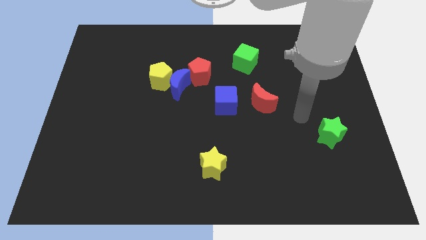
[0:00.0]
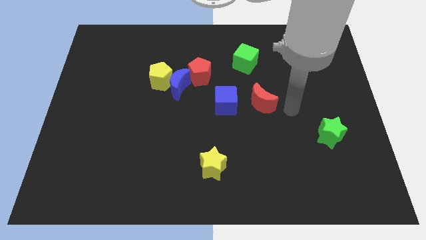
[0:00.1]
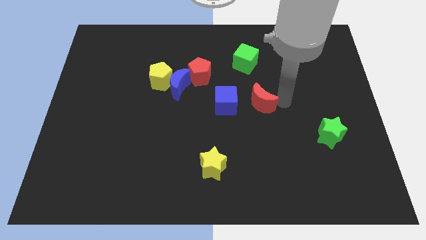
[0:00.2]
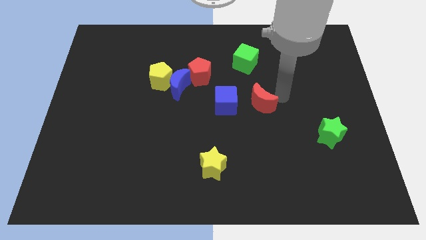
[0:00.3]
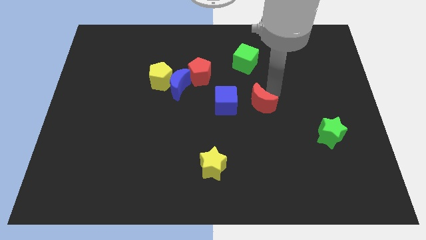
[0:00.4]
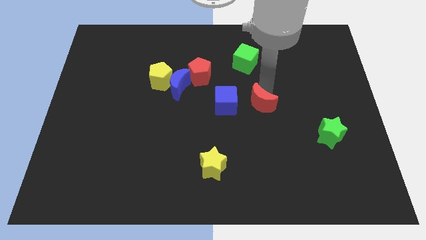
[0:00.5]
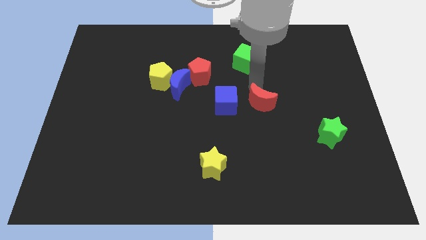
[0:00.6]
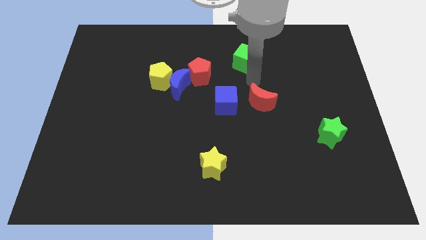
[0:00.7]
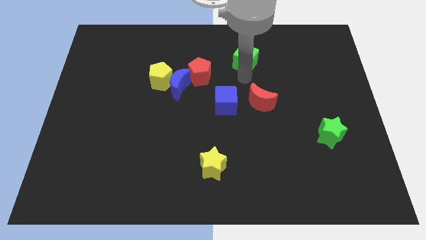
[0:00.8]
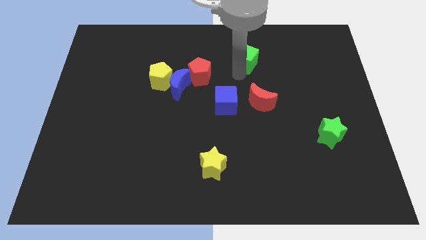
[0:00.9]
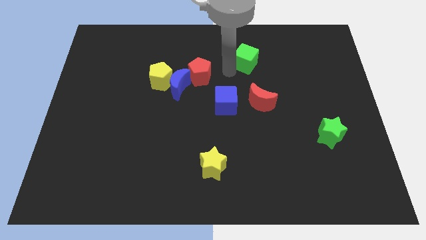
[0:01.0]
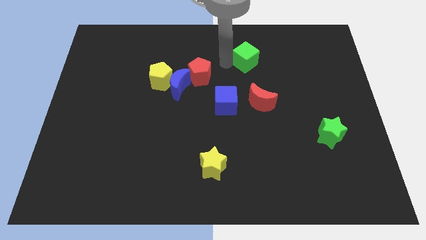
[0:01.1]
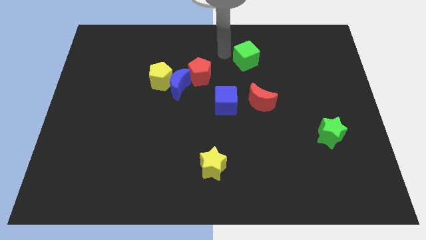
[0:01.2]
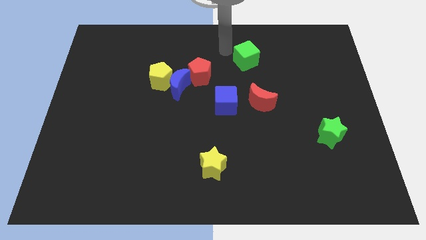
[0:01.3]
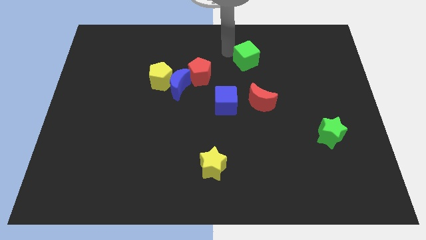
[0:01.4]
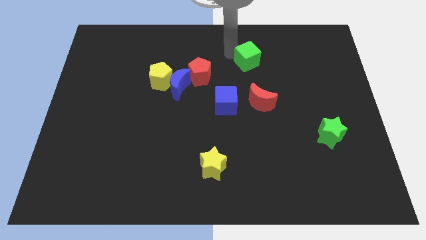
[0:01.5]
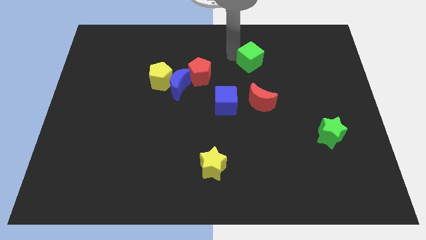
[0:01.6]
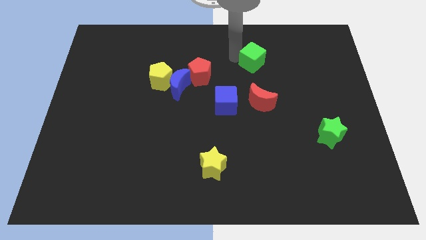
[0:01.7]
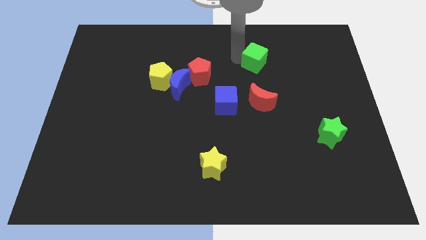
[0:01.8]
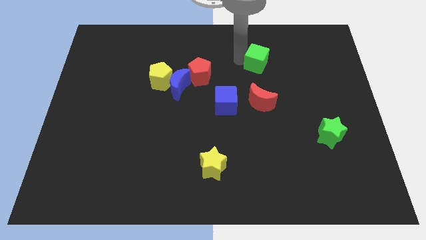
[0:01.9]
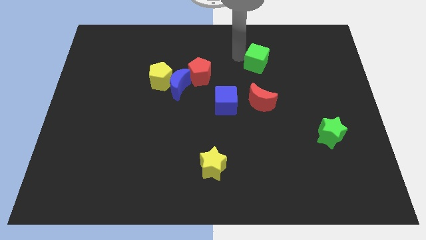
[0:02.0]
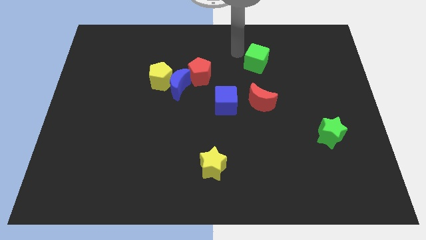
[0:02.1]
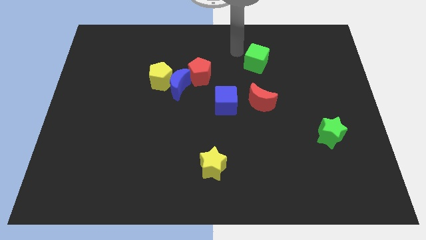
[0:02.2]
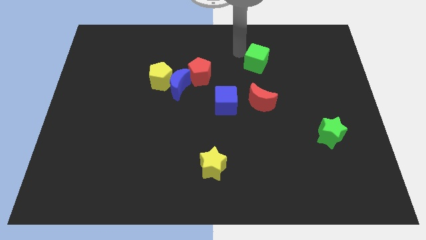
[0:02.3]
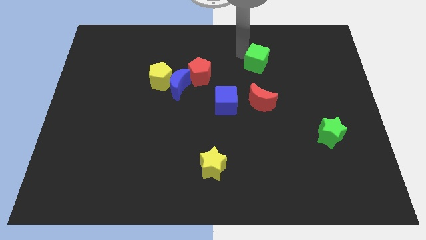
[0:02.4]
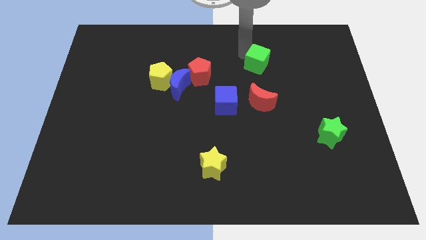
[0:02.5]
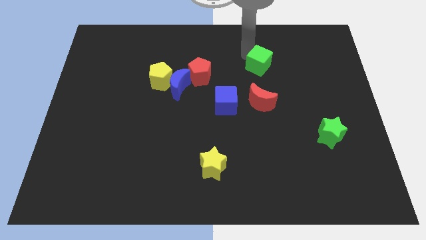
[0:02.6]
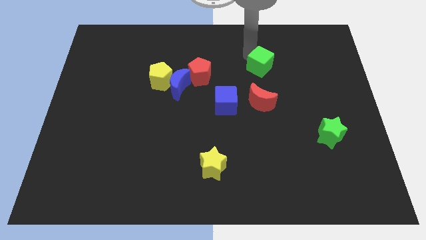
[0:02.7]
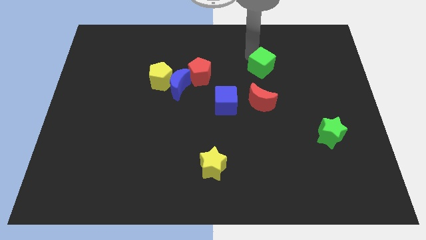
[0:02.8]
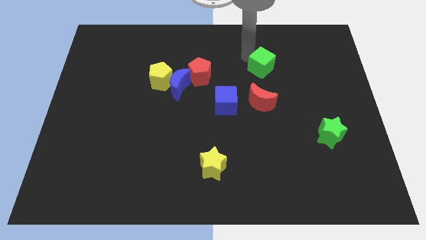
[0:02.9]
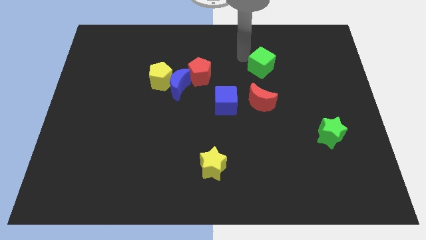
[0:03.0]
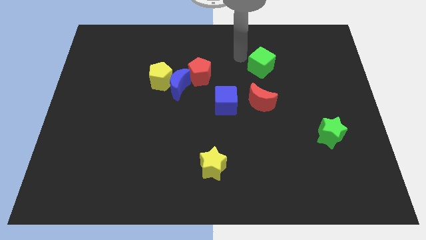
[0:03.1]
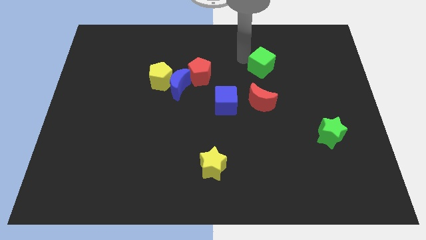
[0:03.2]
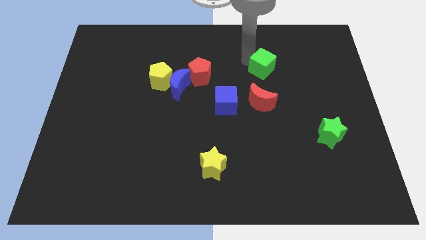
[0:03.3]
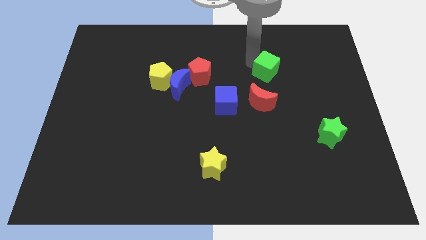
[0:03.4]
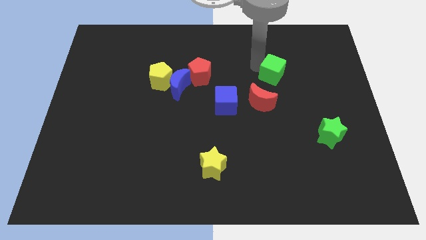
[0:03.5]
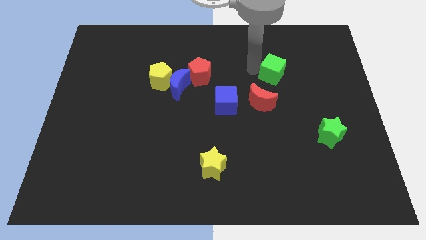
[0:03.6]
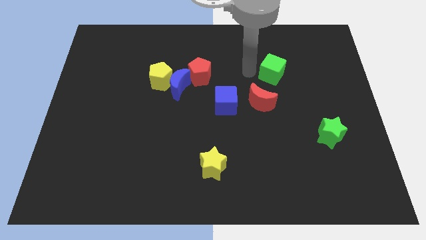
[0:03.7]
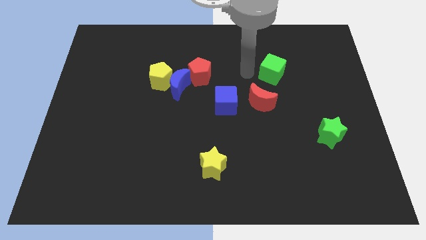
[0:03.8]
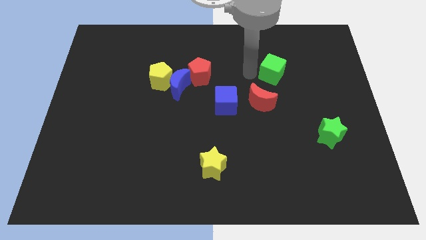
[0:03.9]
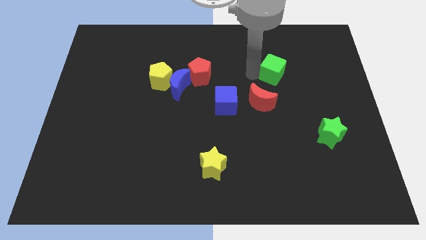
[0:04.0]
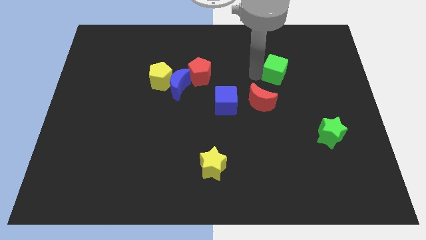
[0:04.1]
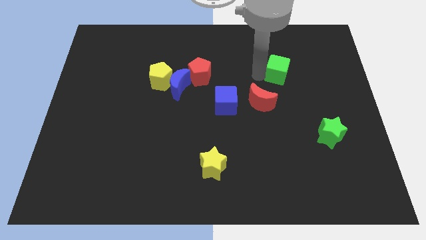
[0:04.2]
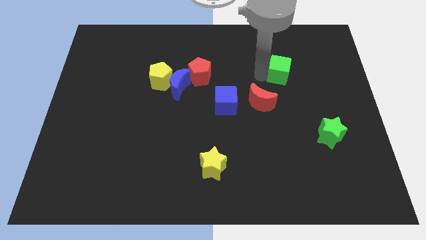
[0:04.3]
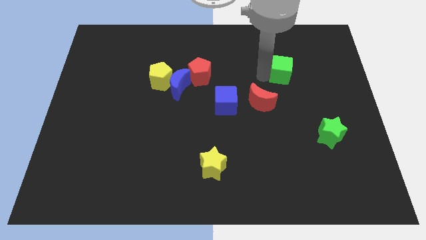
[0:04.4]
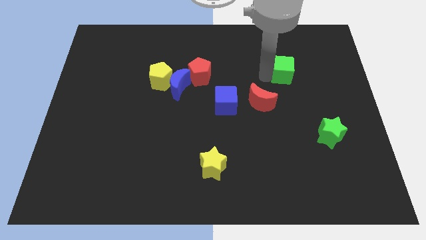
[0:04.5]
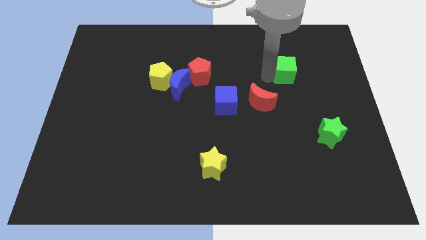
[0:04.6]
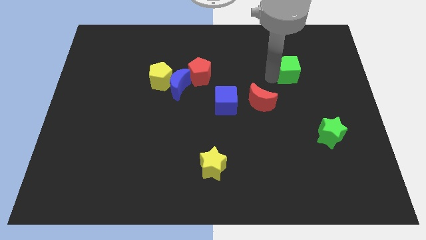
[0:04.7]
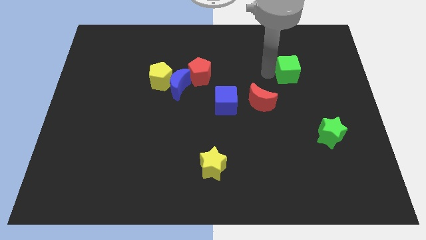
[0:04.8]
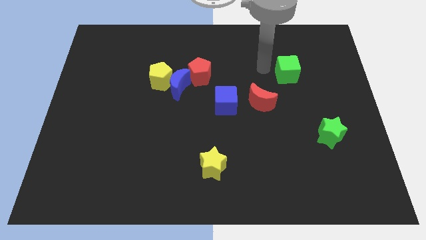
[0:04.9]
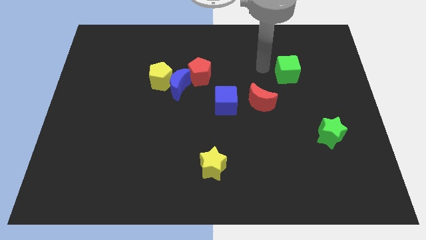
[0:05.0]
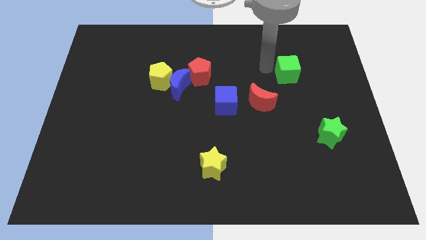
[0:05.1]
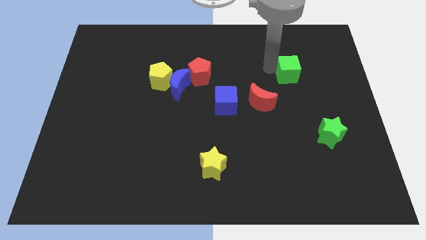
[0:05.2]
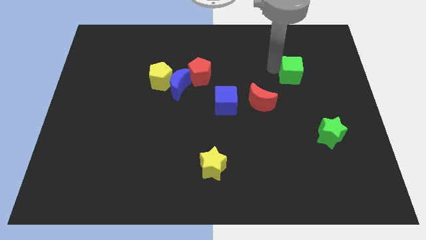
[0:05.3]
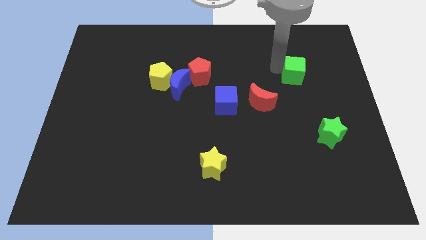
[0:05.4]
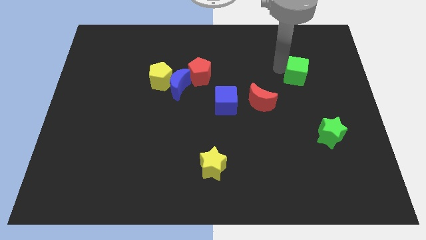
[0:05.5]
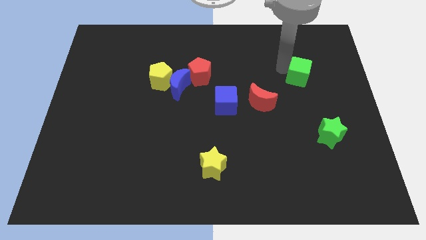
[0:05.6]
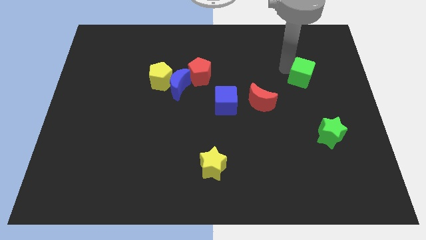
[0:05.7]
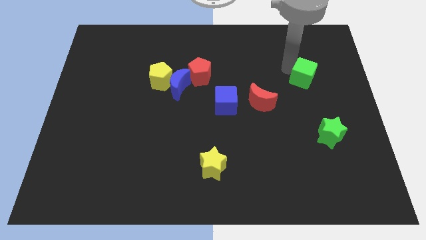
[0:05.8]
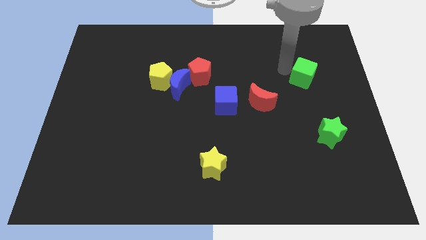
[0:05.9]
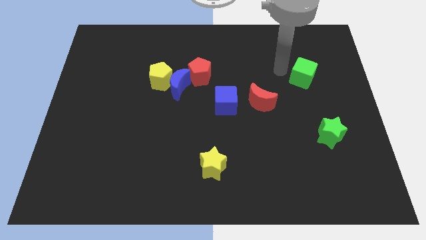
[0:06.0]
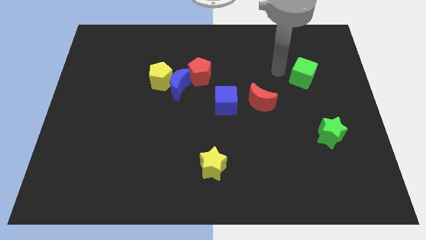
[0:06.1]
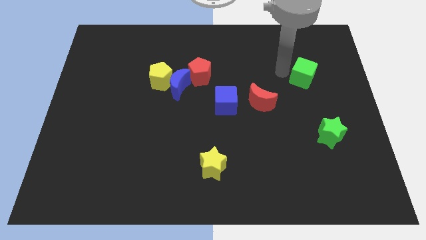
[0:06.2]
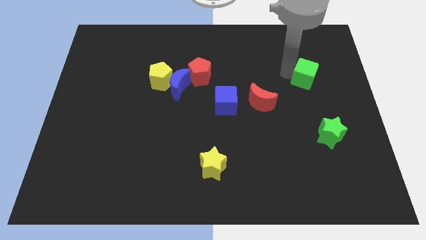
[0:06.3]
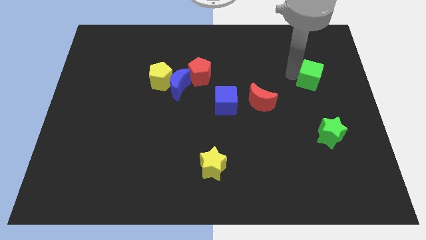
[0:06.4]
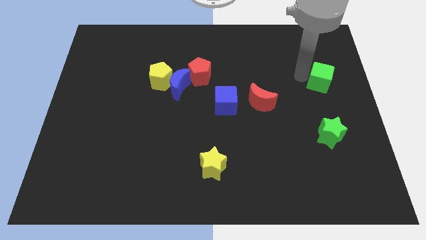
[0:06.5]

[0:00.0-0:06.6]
push the green cube to the right side

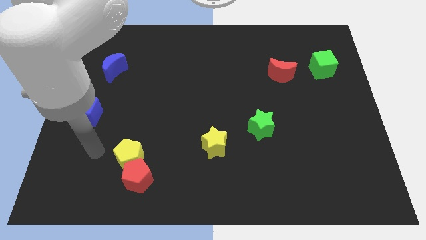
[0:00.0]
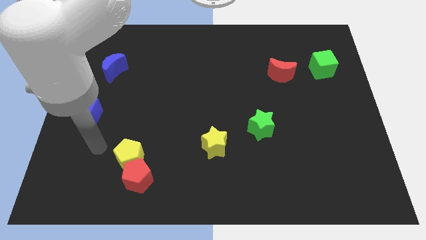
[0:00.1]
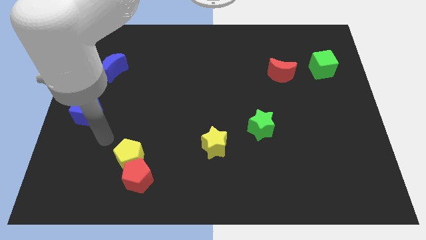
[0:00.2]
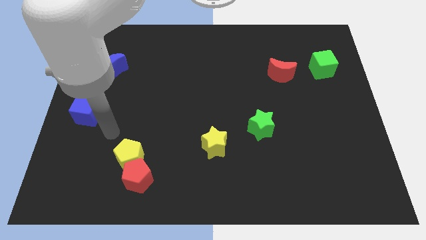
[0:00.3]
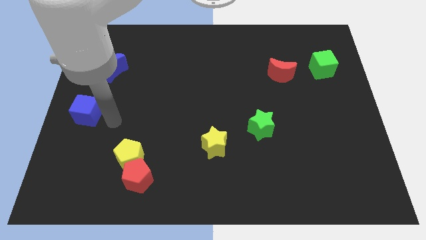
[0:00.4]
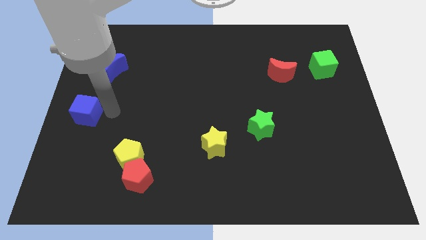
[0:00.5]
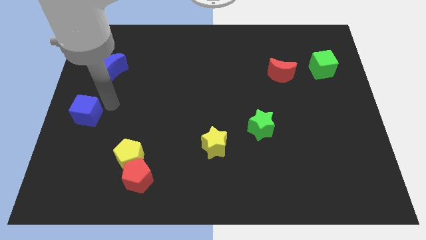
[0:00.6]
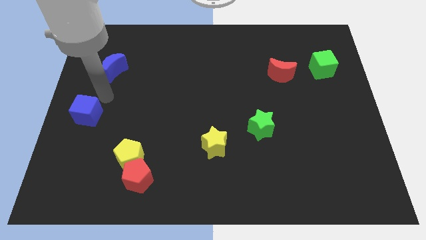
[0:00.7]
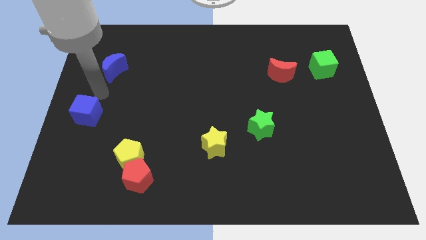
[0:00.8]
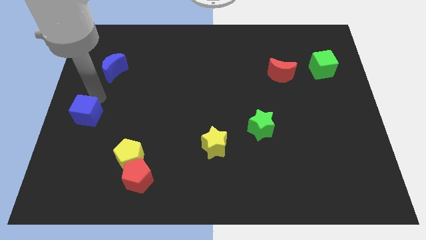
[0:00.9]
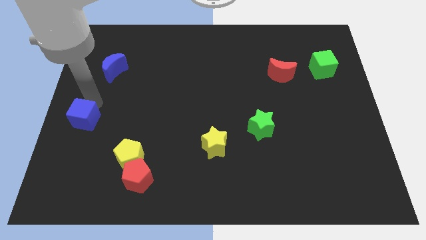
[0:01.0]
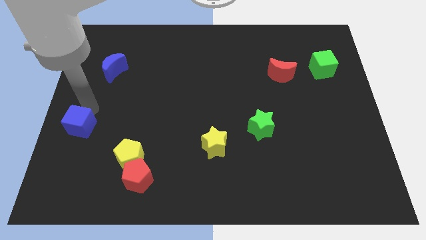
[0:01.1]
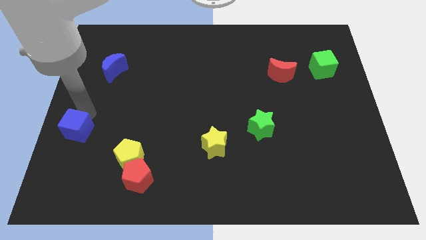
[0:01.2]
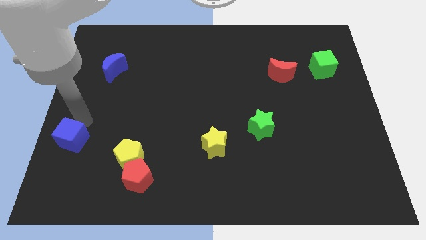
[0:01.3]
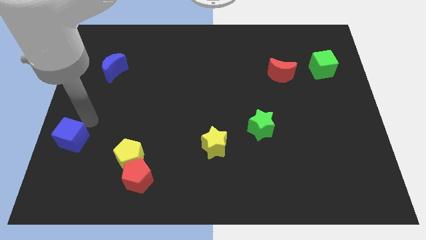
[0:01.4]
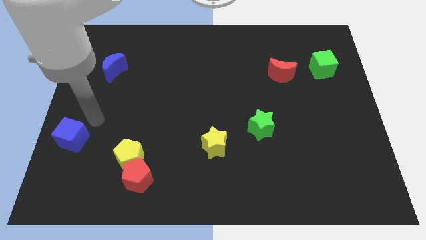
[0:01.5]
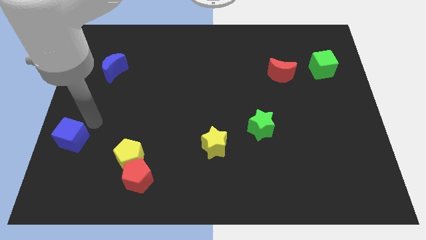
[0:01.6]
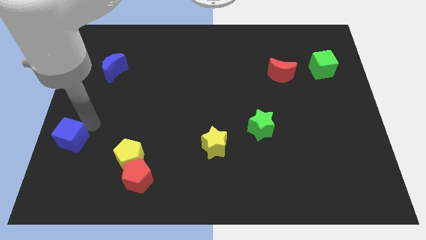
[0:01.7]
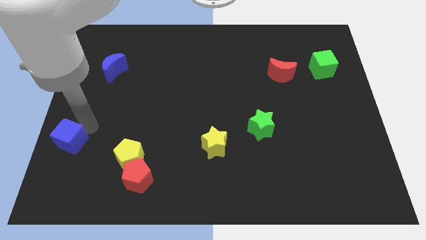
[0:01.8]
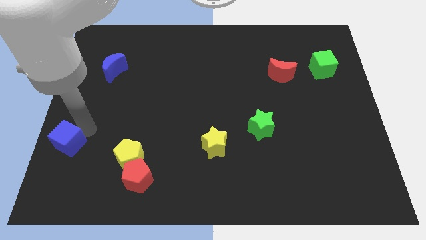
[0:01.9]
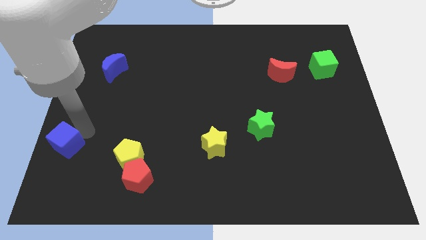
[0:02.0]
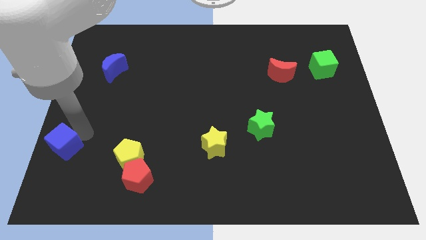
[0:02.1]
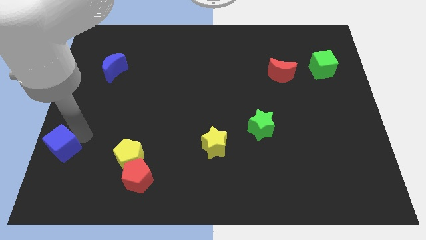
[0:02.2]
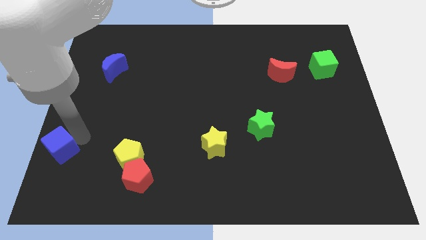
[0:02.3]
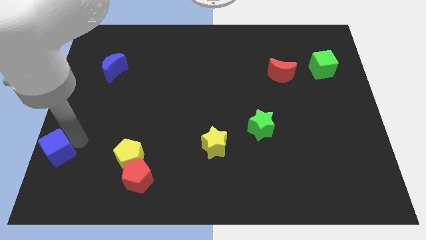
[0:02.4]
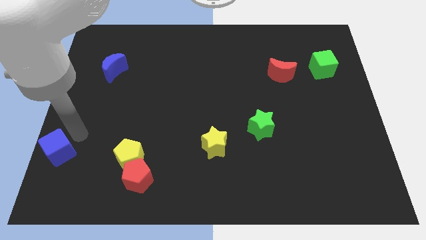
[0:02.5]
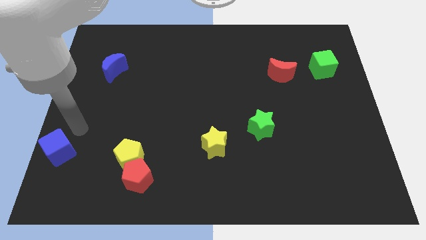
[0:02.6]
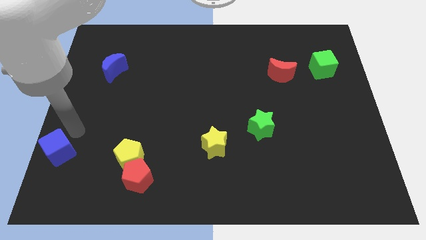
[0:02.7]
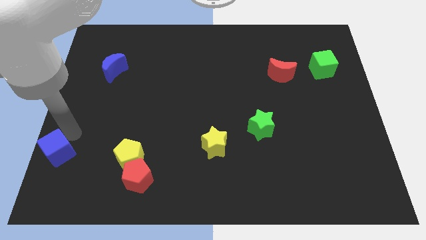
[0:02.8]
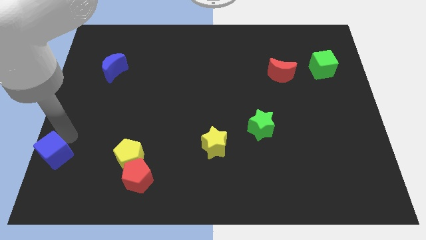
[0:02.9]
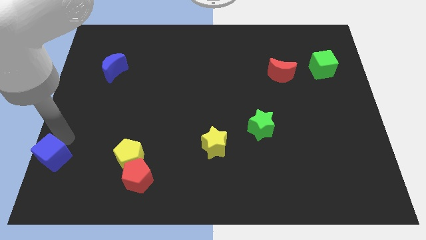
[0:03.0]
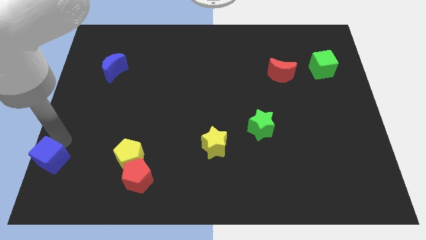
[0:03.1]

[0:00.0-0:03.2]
move the blue cube to the bottom left
